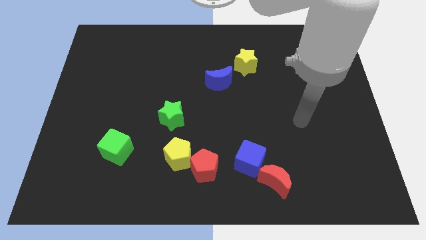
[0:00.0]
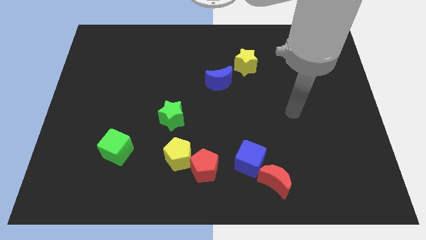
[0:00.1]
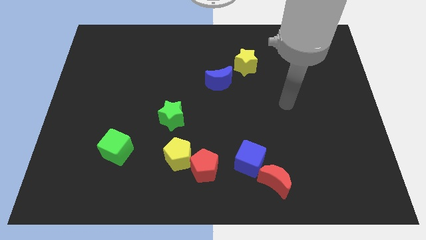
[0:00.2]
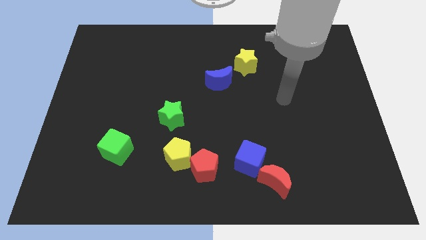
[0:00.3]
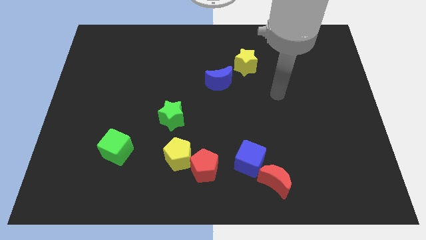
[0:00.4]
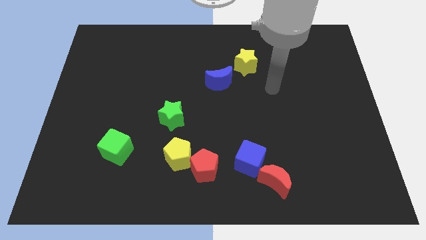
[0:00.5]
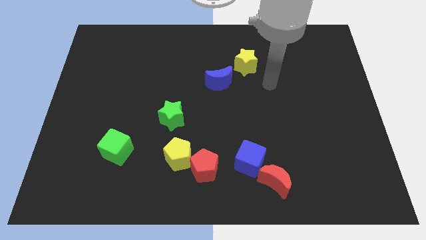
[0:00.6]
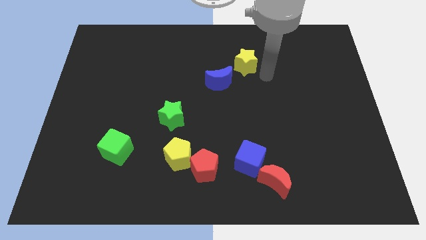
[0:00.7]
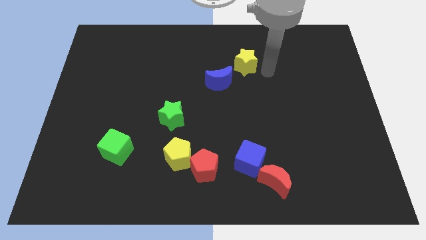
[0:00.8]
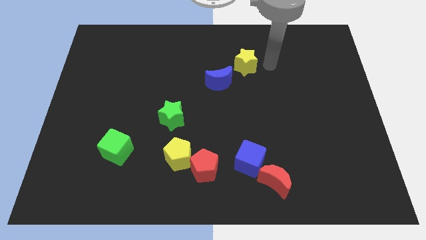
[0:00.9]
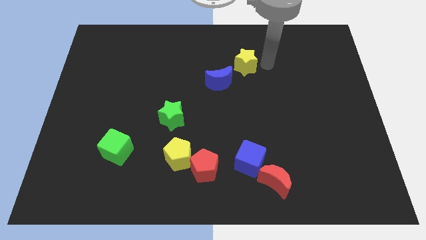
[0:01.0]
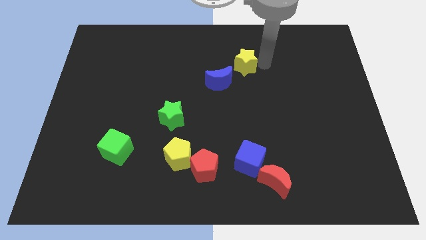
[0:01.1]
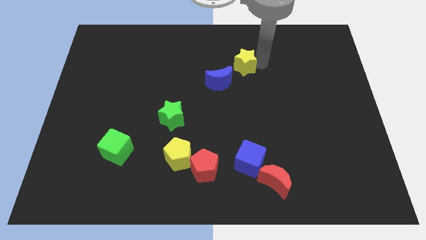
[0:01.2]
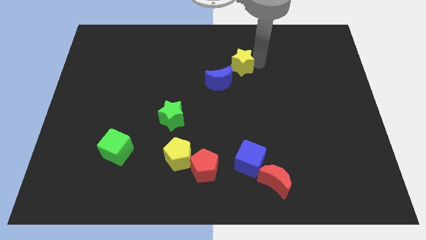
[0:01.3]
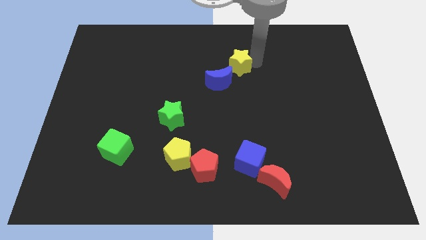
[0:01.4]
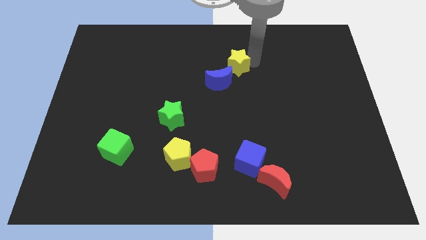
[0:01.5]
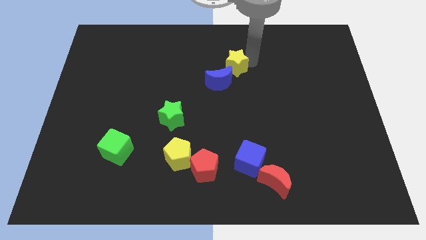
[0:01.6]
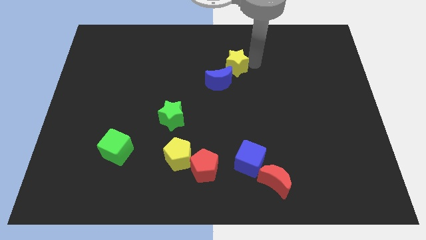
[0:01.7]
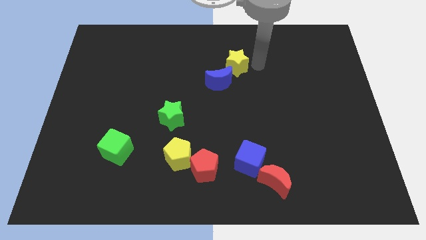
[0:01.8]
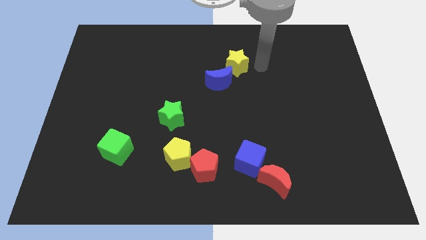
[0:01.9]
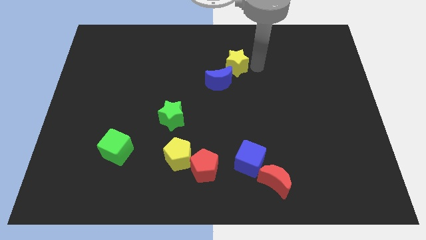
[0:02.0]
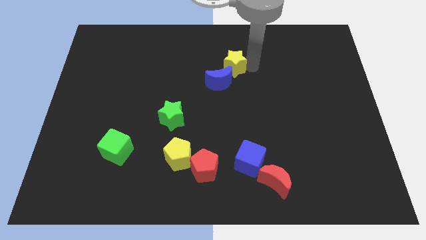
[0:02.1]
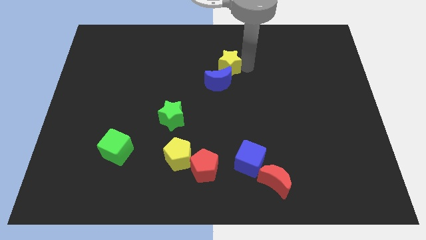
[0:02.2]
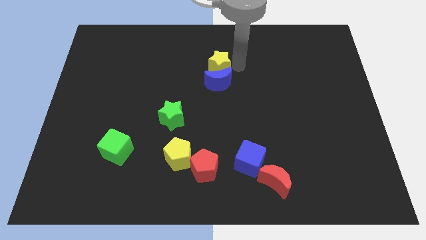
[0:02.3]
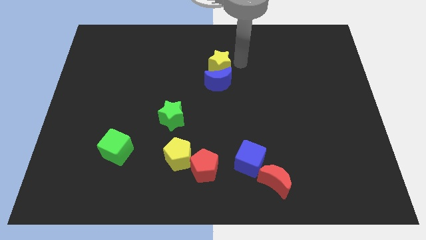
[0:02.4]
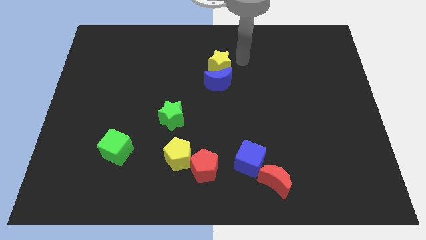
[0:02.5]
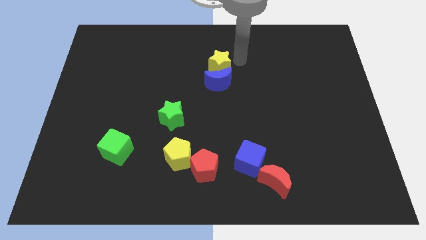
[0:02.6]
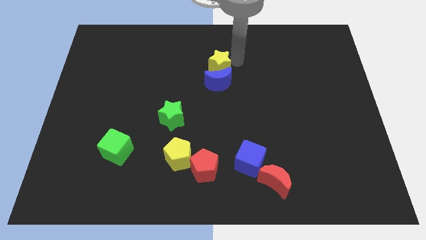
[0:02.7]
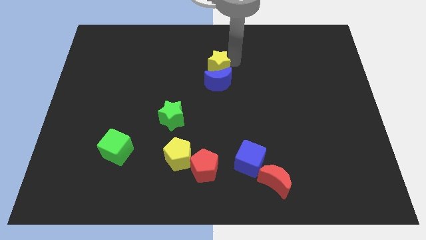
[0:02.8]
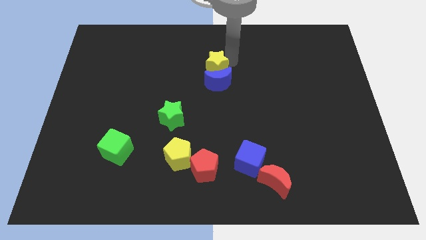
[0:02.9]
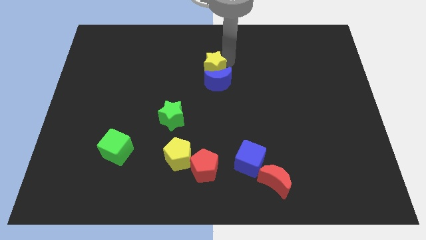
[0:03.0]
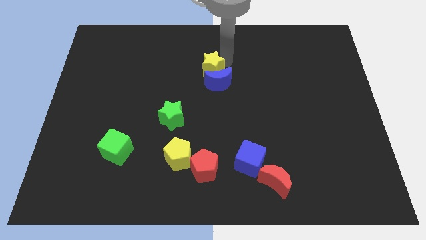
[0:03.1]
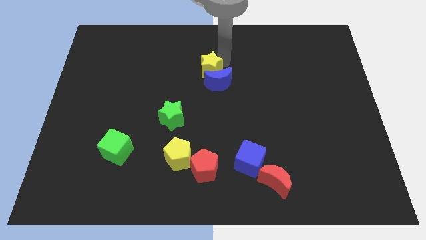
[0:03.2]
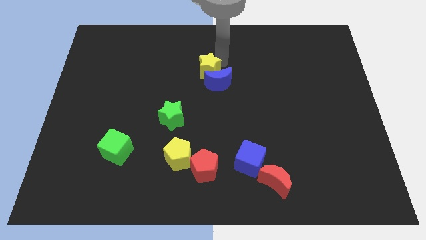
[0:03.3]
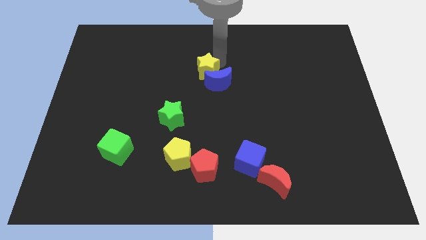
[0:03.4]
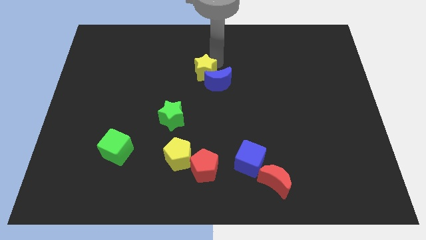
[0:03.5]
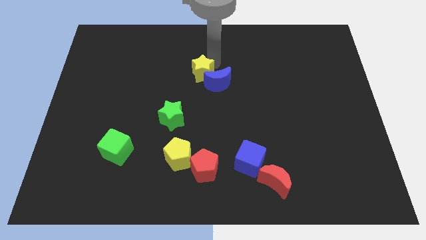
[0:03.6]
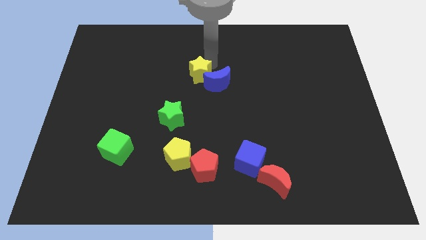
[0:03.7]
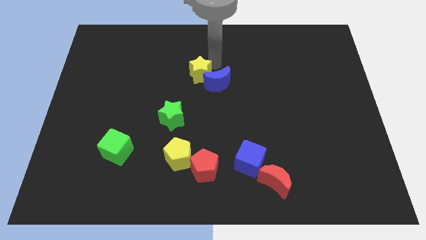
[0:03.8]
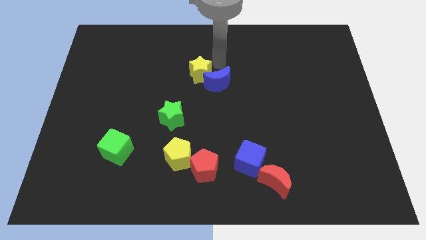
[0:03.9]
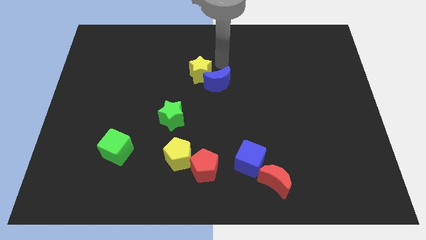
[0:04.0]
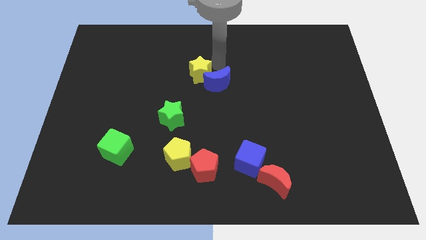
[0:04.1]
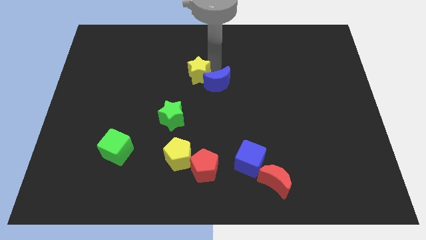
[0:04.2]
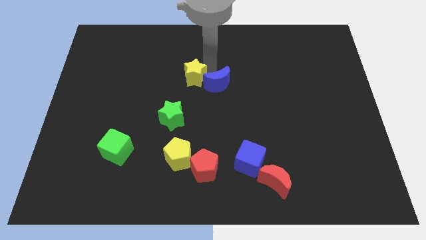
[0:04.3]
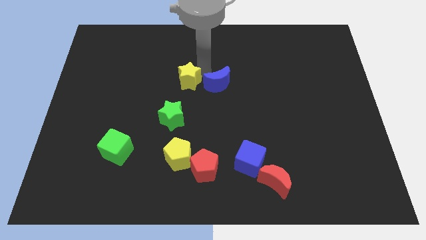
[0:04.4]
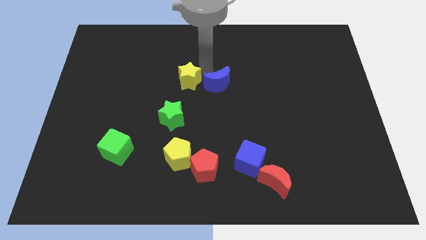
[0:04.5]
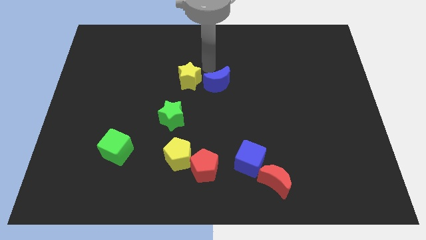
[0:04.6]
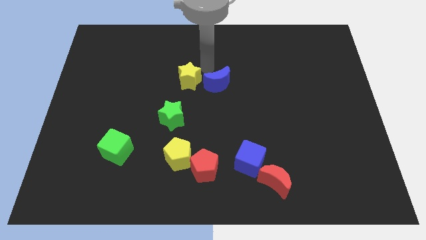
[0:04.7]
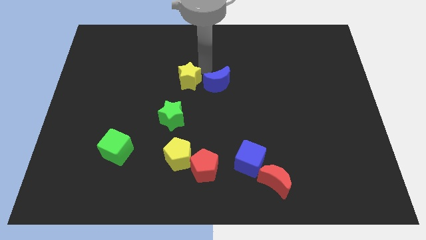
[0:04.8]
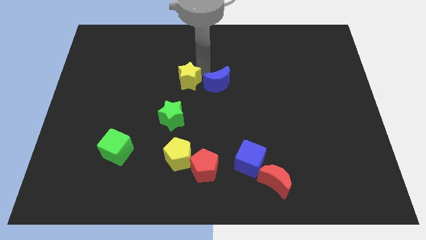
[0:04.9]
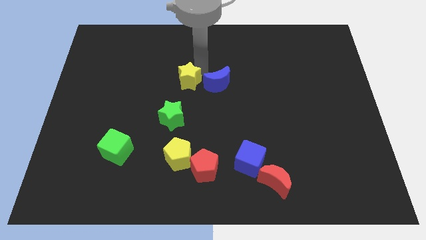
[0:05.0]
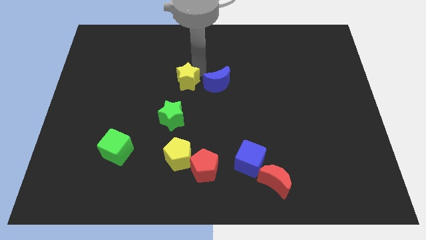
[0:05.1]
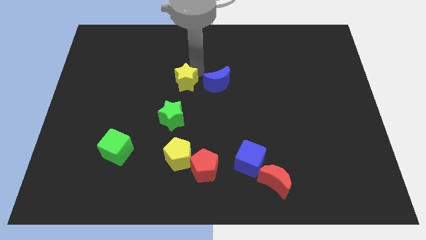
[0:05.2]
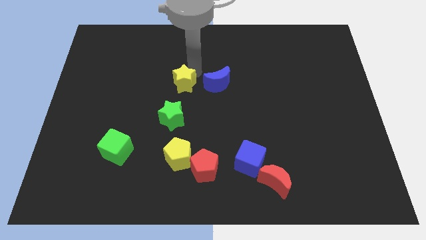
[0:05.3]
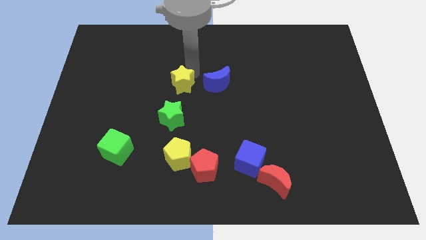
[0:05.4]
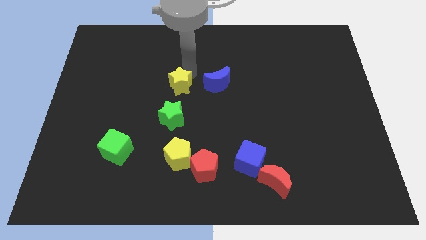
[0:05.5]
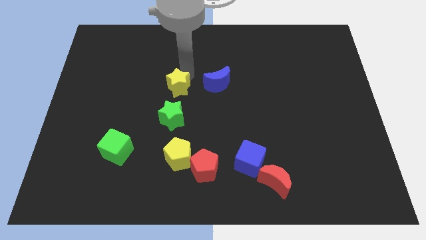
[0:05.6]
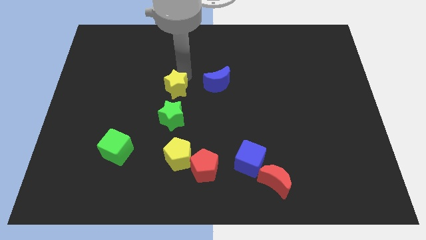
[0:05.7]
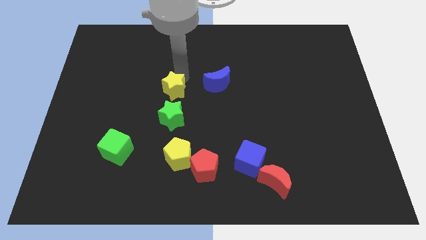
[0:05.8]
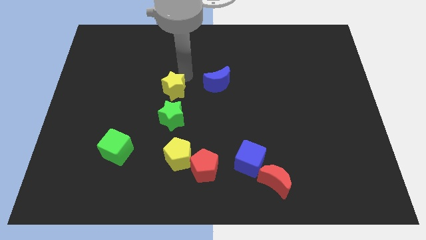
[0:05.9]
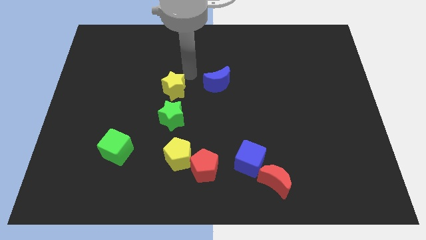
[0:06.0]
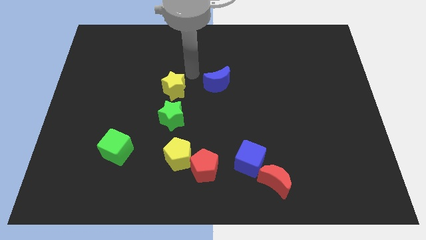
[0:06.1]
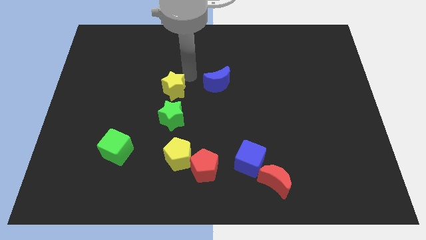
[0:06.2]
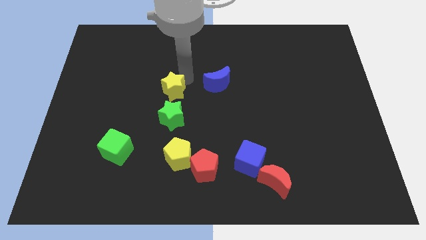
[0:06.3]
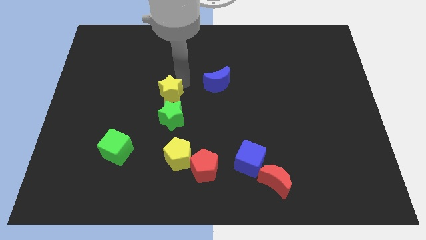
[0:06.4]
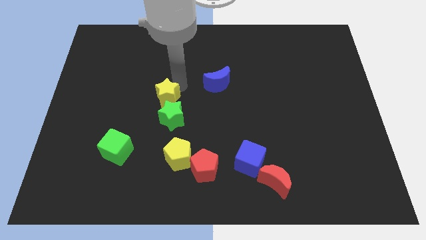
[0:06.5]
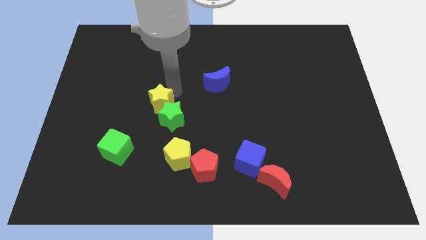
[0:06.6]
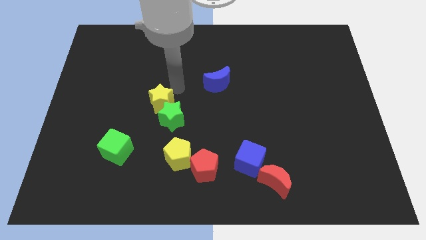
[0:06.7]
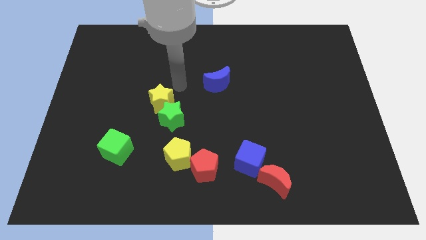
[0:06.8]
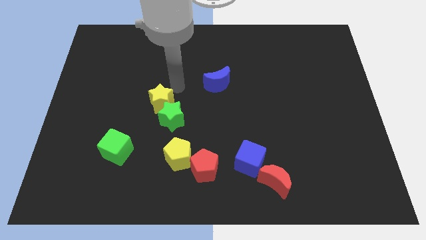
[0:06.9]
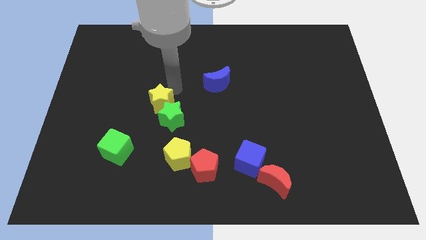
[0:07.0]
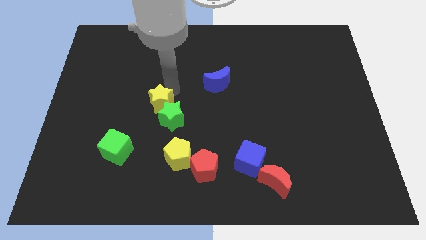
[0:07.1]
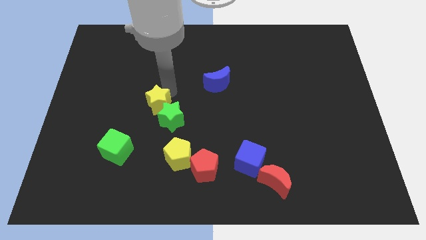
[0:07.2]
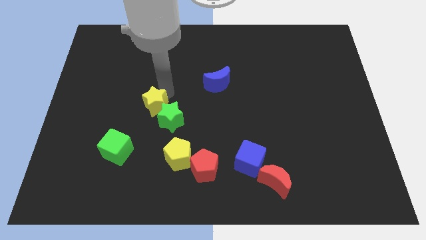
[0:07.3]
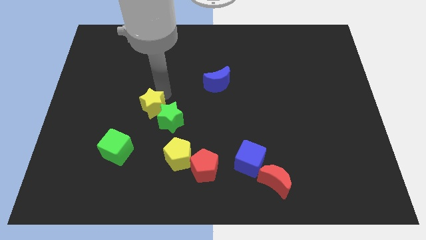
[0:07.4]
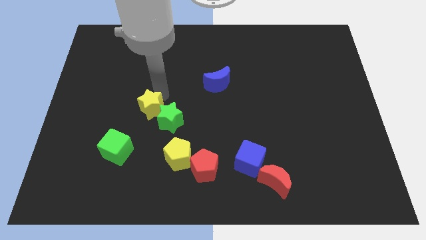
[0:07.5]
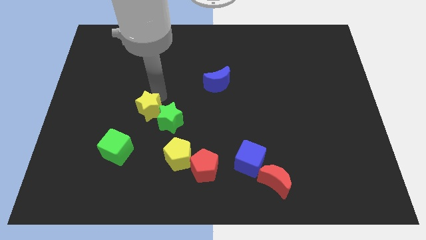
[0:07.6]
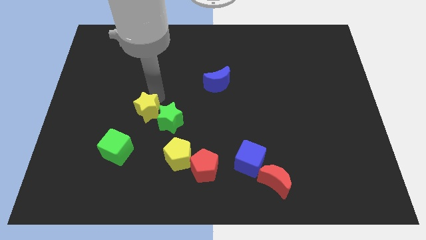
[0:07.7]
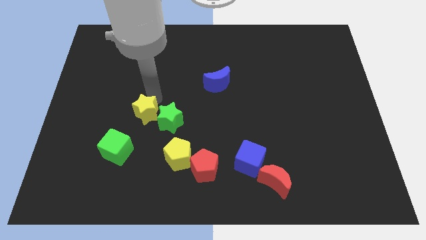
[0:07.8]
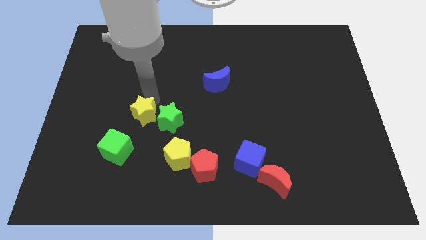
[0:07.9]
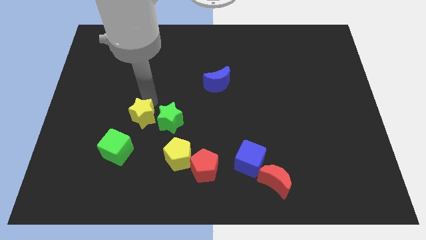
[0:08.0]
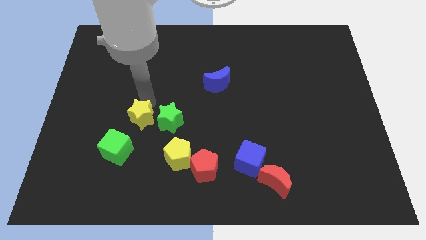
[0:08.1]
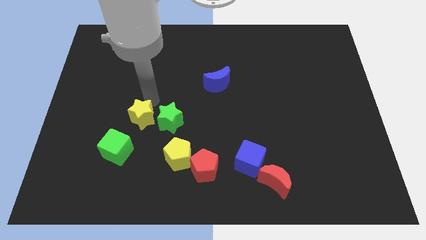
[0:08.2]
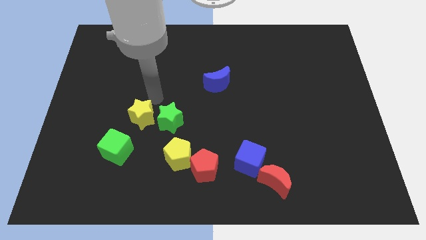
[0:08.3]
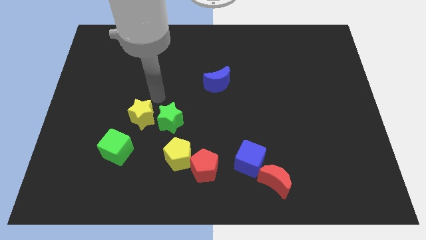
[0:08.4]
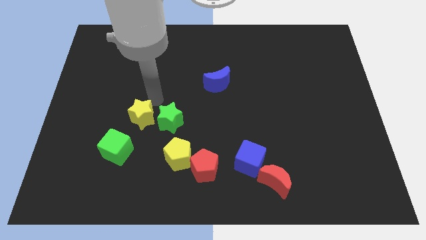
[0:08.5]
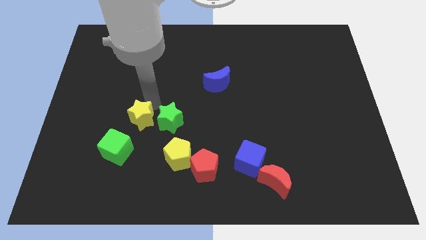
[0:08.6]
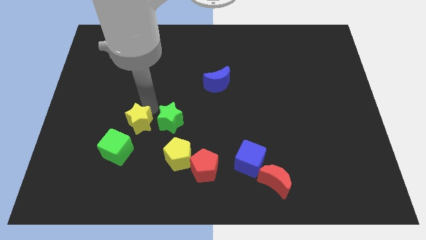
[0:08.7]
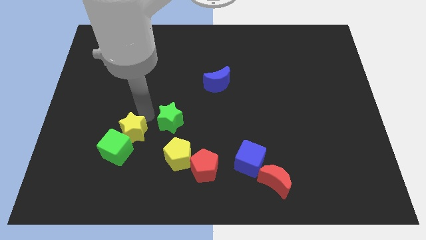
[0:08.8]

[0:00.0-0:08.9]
slide the yellow star next to the green cube
